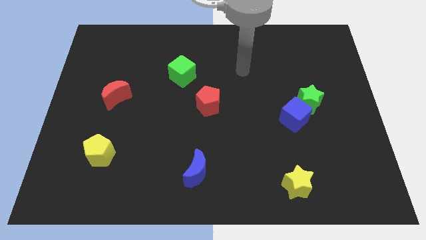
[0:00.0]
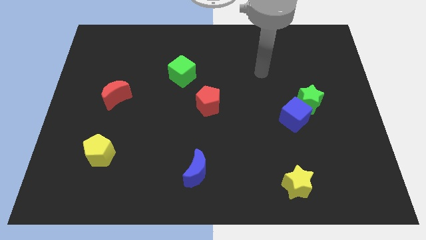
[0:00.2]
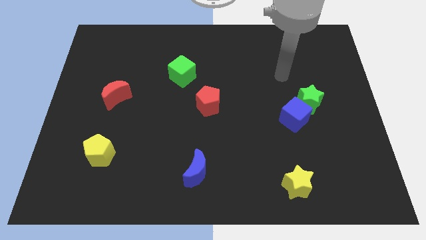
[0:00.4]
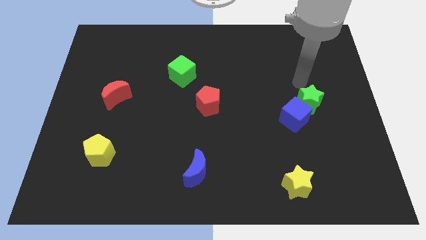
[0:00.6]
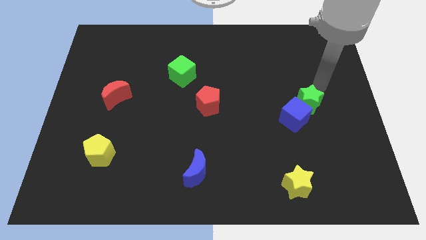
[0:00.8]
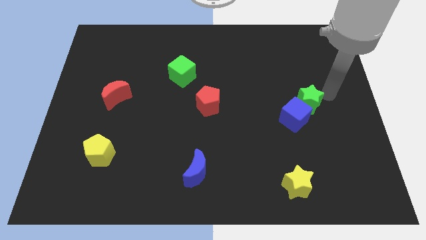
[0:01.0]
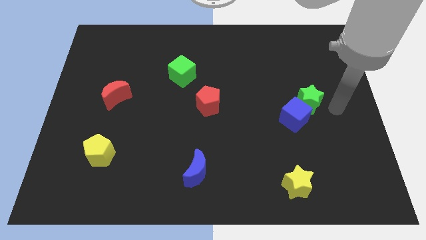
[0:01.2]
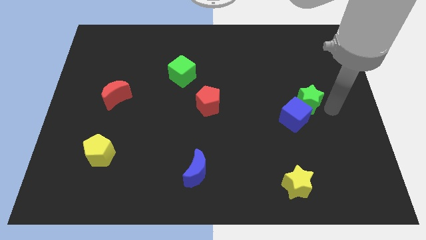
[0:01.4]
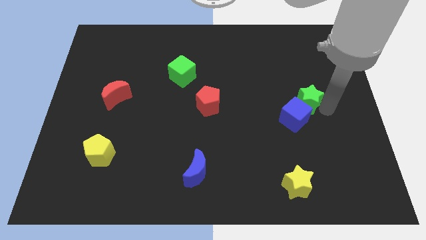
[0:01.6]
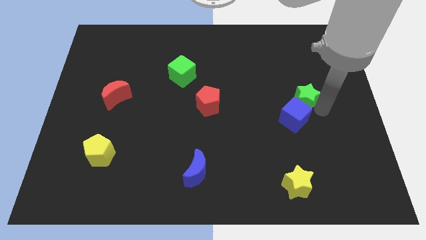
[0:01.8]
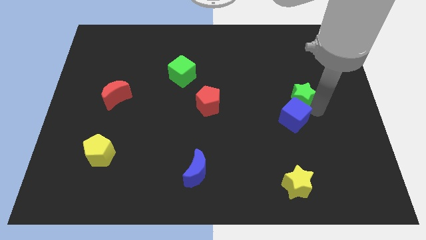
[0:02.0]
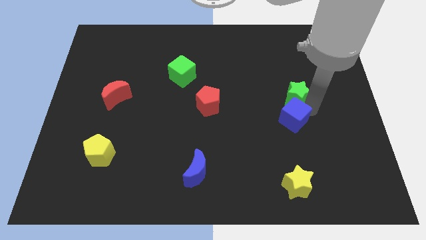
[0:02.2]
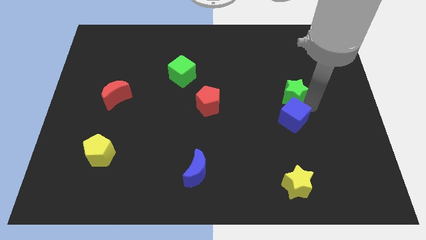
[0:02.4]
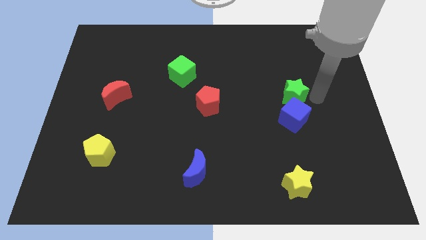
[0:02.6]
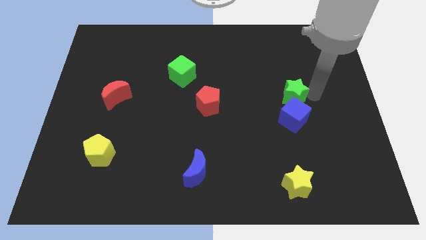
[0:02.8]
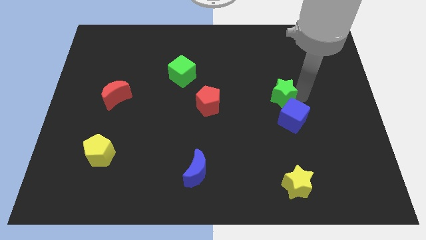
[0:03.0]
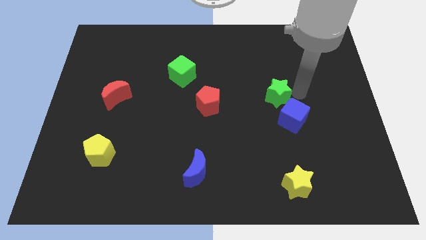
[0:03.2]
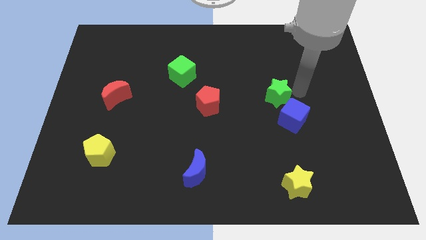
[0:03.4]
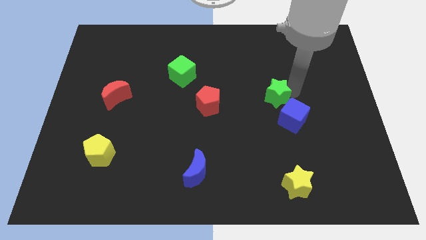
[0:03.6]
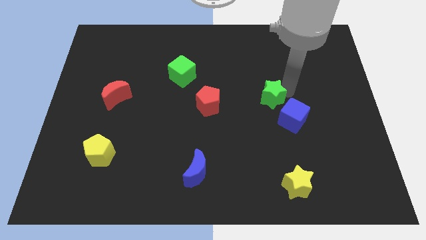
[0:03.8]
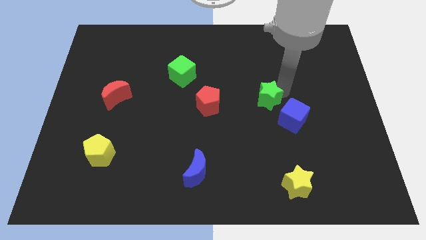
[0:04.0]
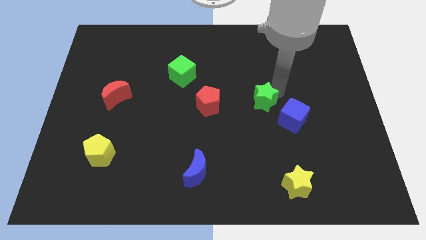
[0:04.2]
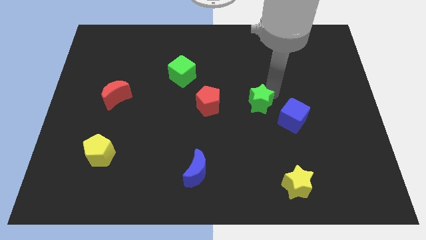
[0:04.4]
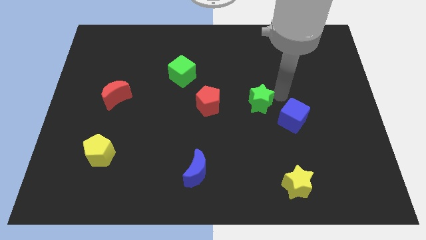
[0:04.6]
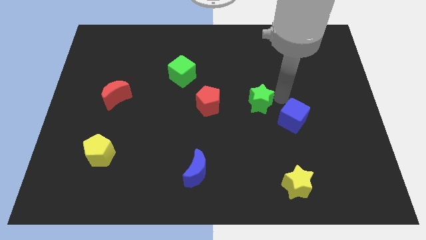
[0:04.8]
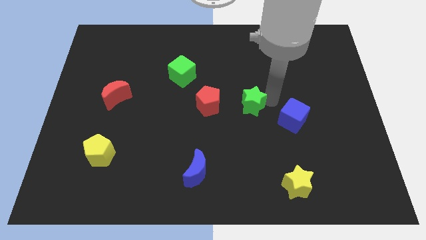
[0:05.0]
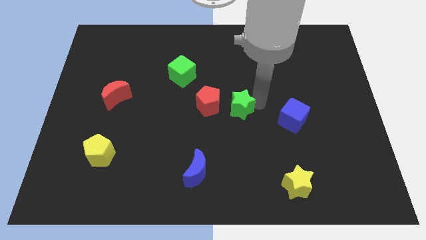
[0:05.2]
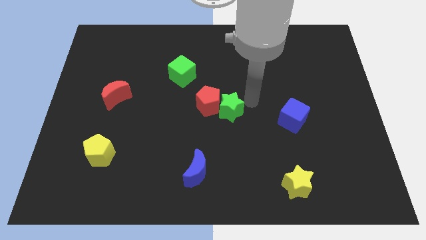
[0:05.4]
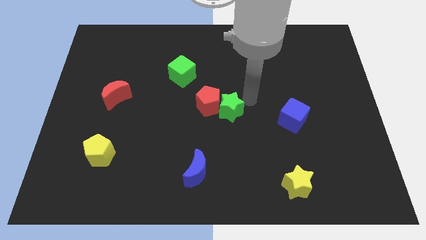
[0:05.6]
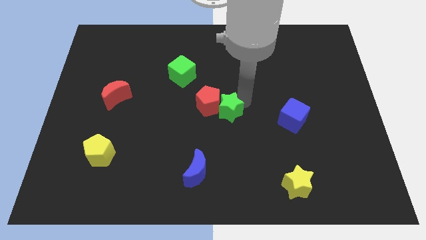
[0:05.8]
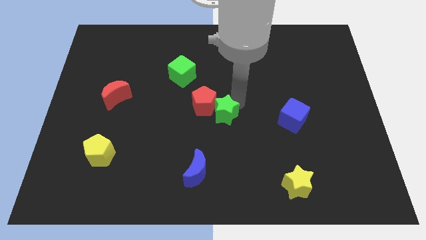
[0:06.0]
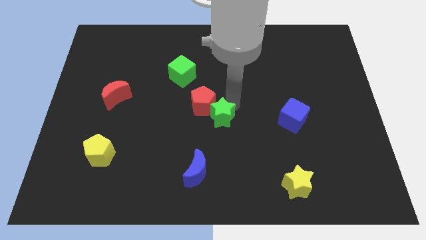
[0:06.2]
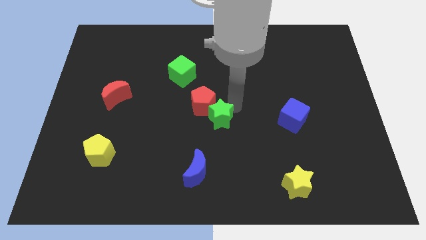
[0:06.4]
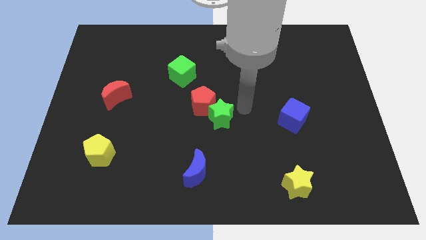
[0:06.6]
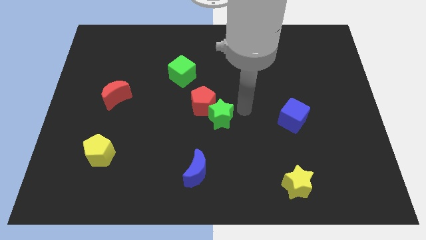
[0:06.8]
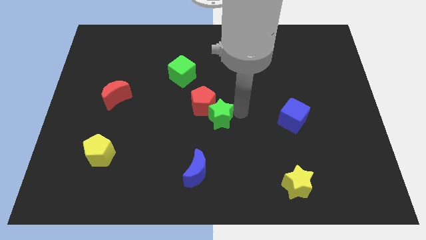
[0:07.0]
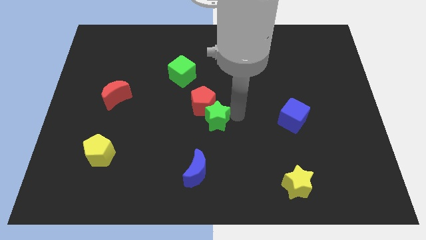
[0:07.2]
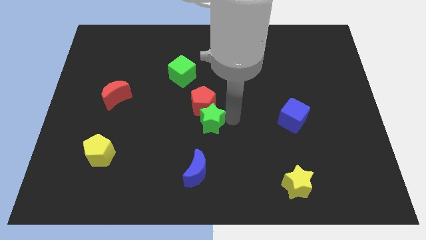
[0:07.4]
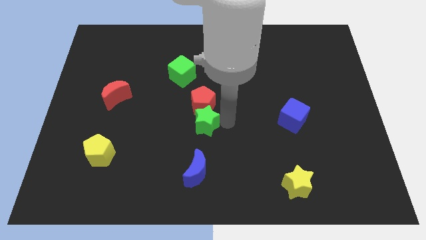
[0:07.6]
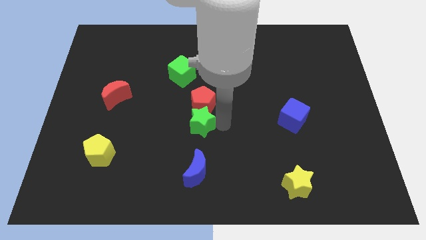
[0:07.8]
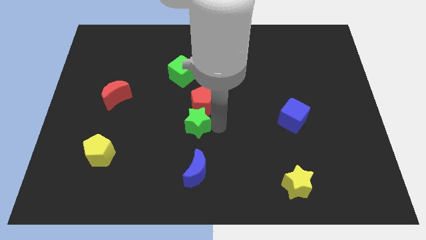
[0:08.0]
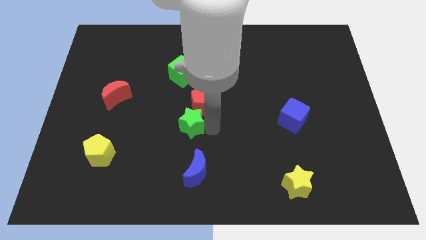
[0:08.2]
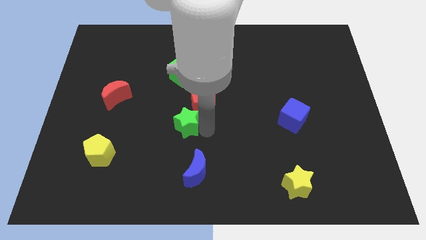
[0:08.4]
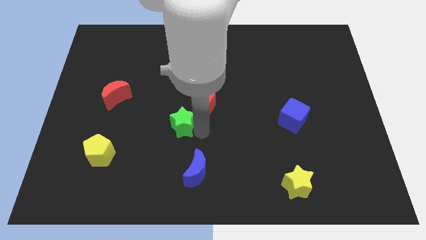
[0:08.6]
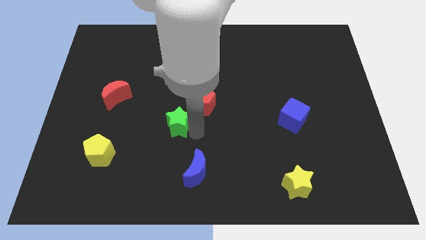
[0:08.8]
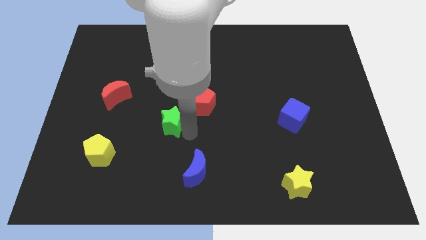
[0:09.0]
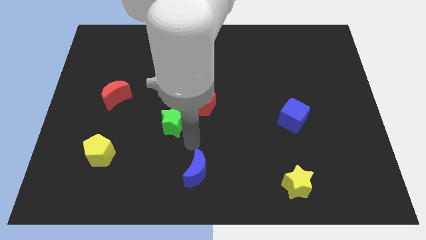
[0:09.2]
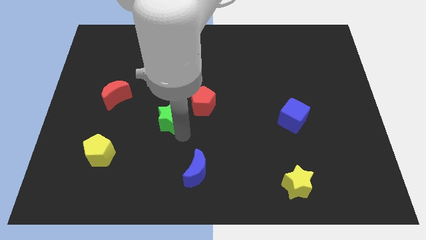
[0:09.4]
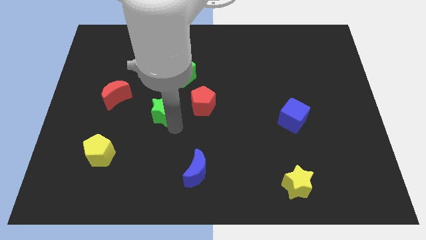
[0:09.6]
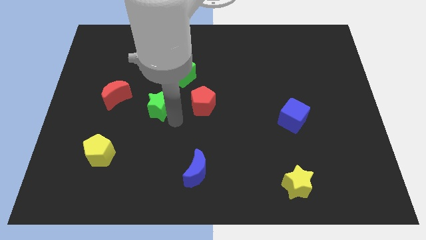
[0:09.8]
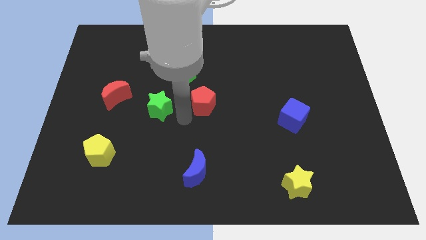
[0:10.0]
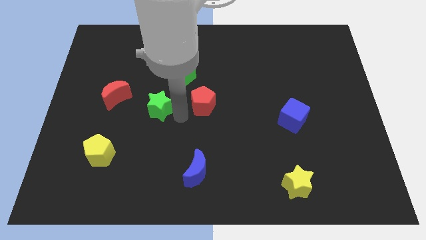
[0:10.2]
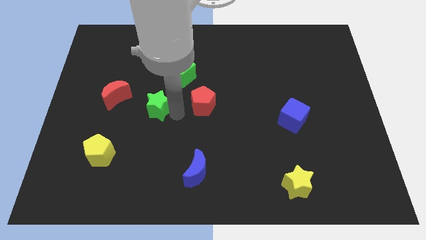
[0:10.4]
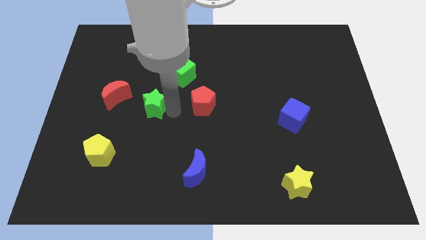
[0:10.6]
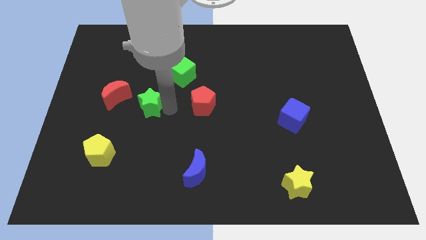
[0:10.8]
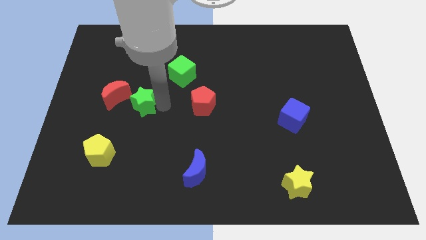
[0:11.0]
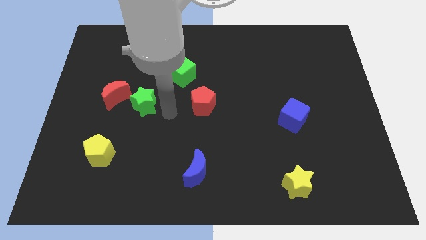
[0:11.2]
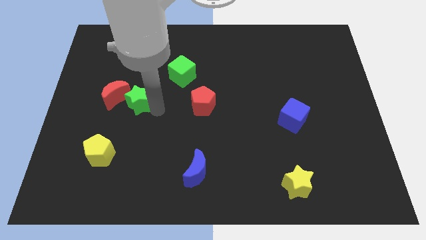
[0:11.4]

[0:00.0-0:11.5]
slide the green star towards the red moon

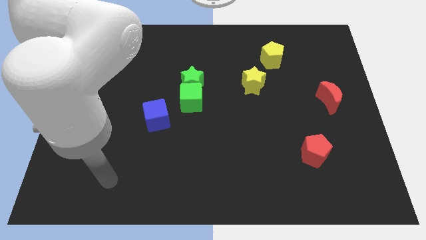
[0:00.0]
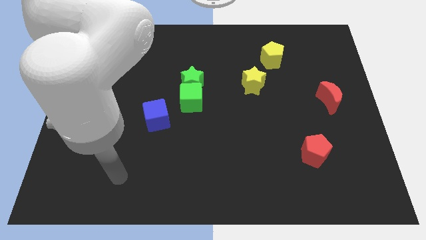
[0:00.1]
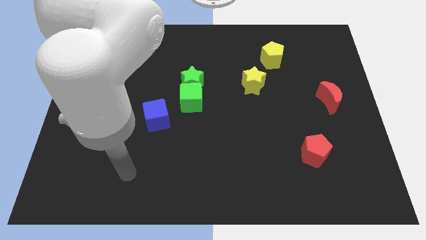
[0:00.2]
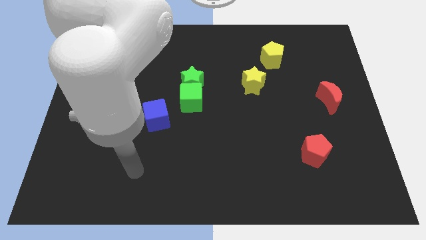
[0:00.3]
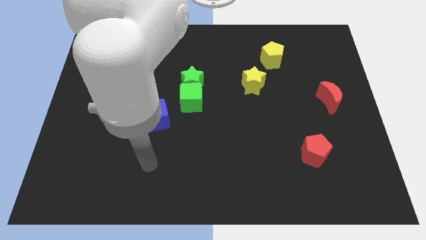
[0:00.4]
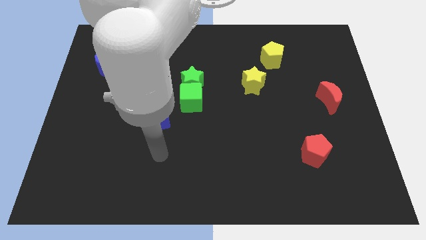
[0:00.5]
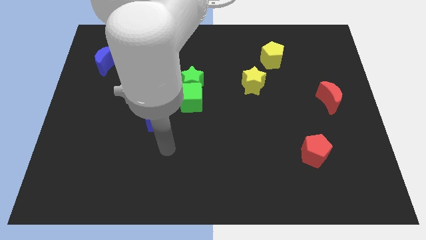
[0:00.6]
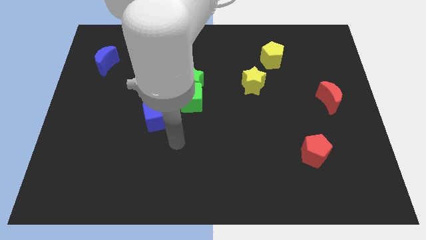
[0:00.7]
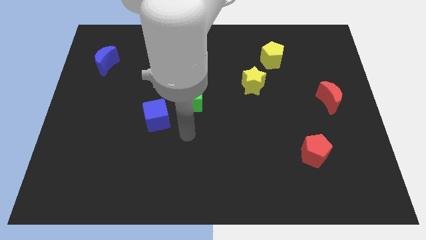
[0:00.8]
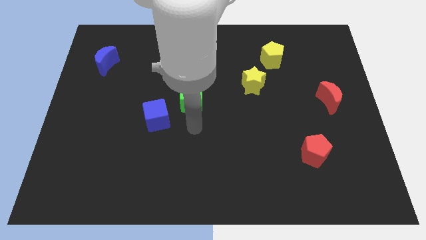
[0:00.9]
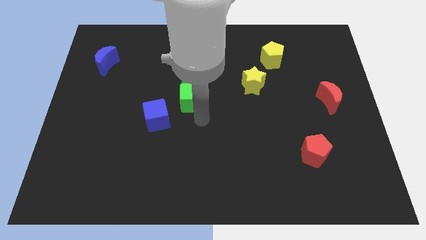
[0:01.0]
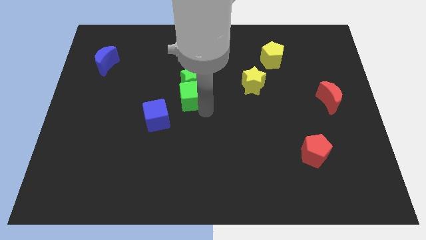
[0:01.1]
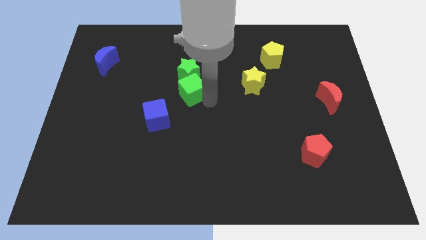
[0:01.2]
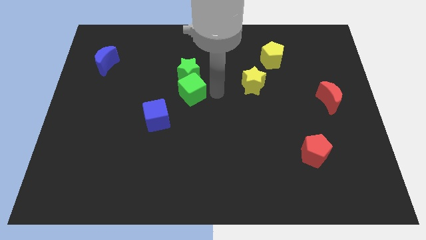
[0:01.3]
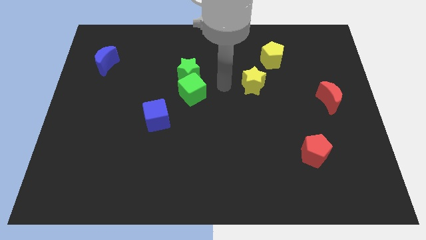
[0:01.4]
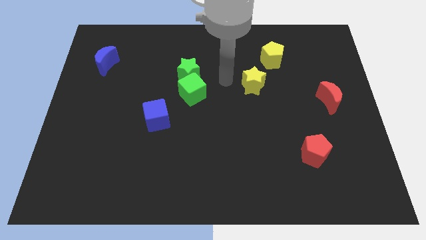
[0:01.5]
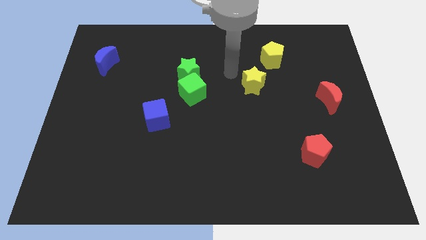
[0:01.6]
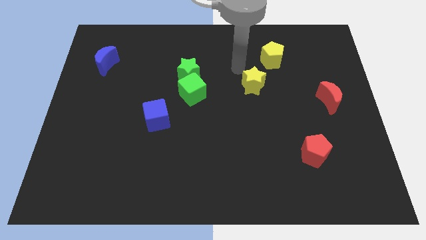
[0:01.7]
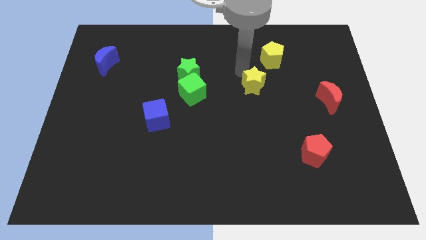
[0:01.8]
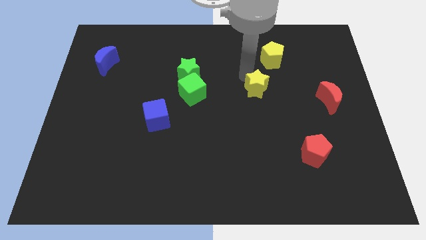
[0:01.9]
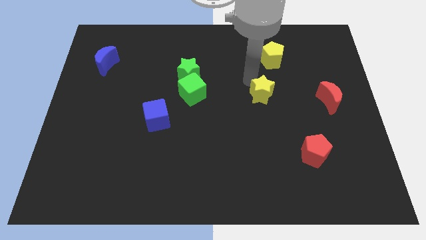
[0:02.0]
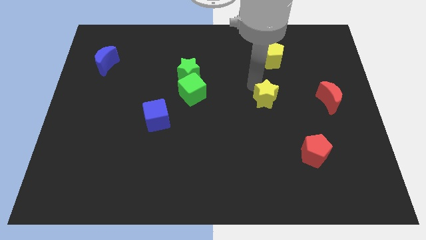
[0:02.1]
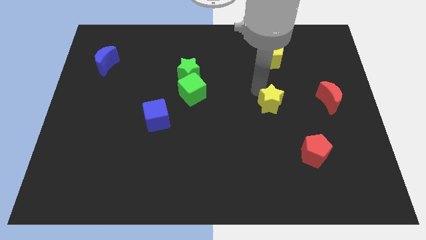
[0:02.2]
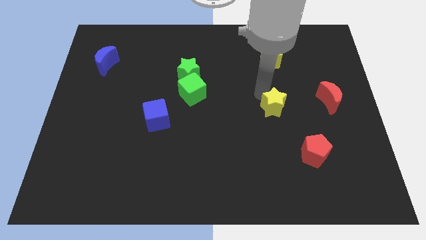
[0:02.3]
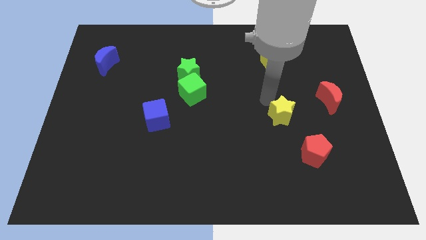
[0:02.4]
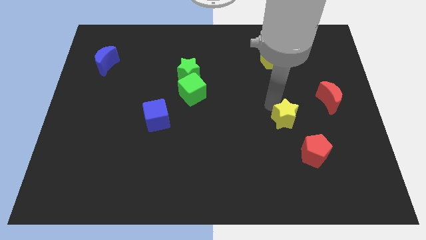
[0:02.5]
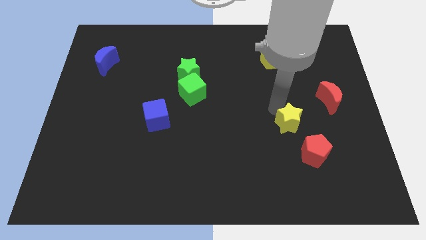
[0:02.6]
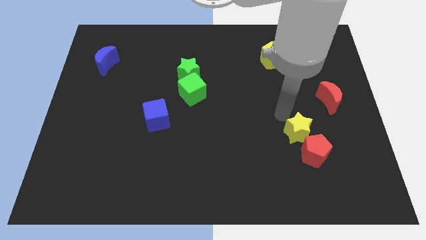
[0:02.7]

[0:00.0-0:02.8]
put the yellow star to the red pentagon
